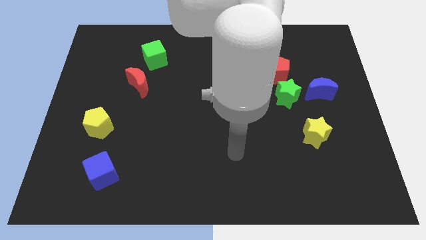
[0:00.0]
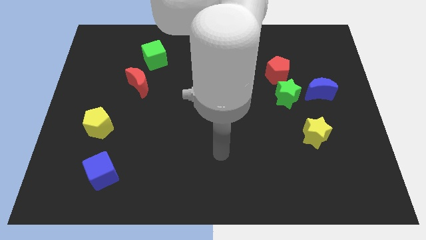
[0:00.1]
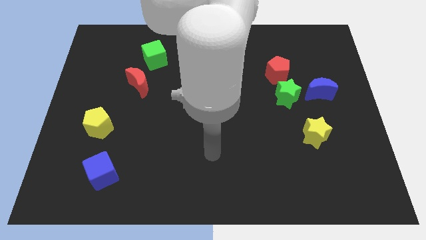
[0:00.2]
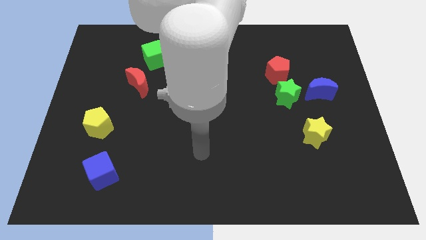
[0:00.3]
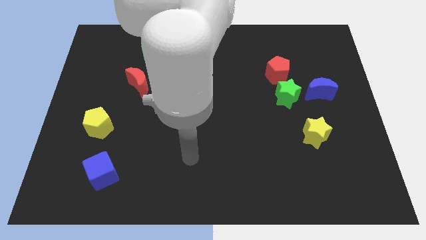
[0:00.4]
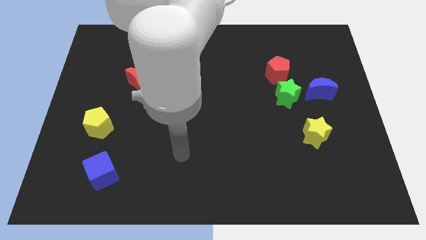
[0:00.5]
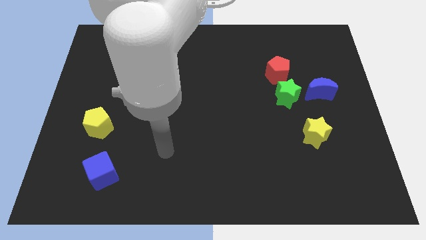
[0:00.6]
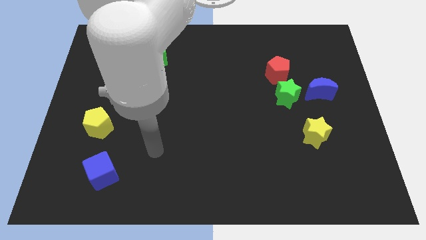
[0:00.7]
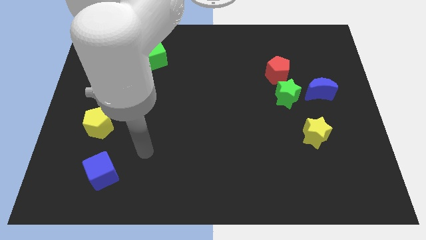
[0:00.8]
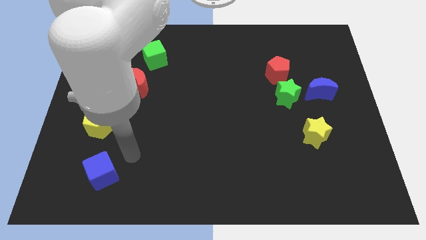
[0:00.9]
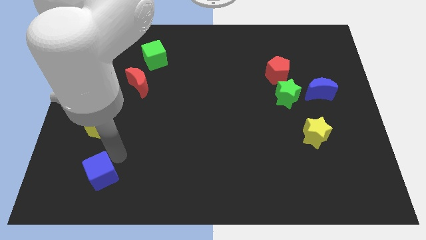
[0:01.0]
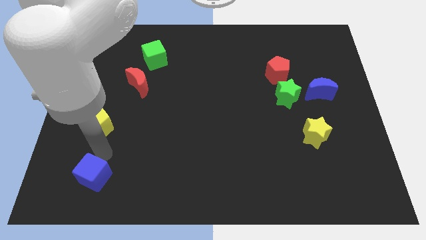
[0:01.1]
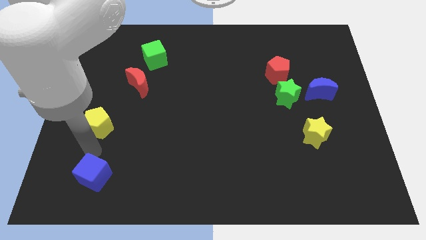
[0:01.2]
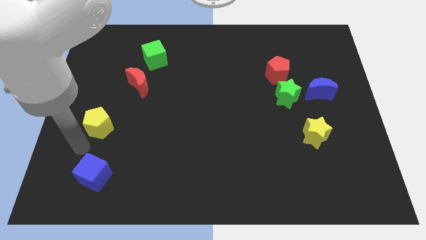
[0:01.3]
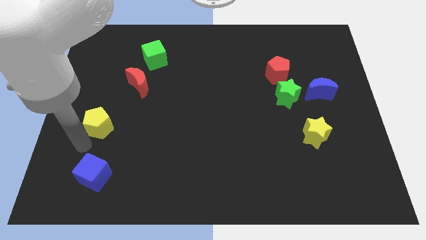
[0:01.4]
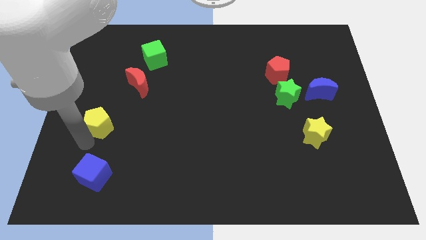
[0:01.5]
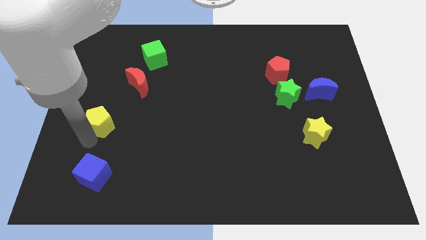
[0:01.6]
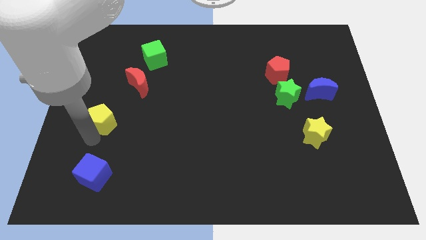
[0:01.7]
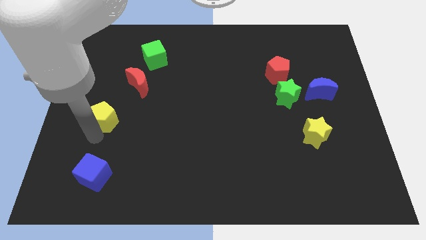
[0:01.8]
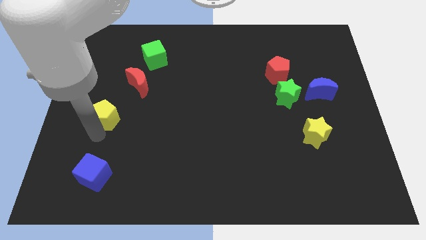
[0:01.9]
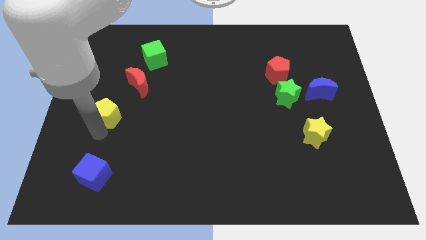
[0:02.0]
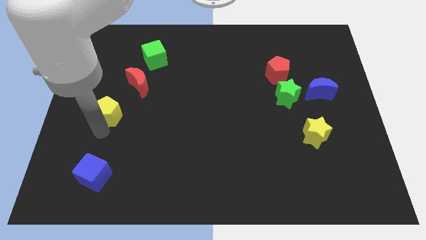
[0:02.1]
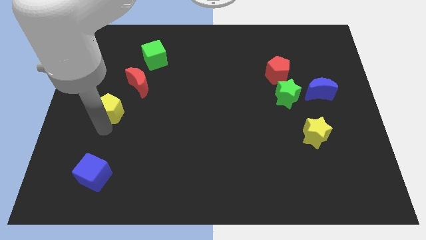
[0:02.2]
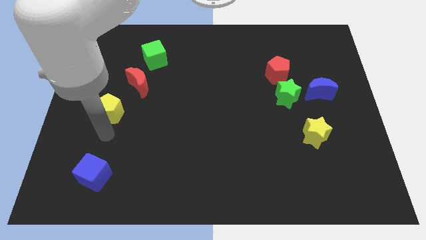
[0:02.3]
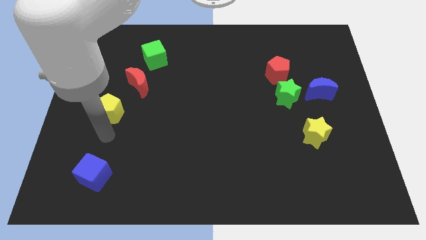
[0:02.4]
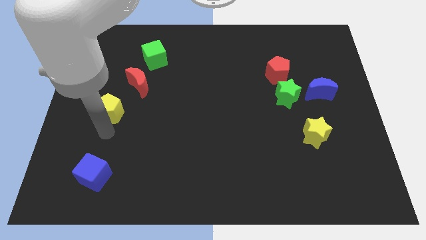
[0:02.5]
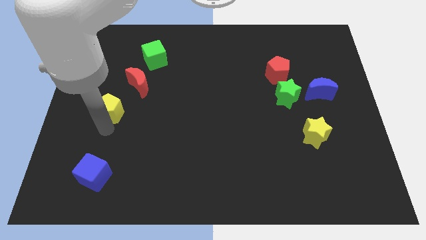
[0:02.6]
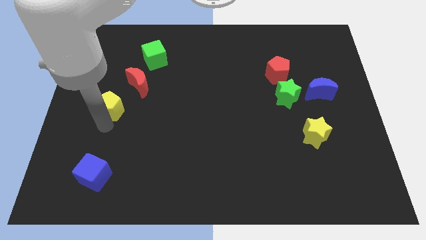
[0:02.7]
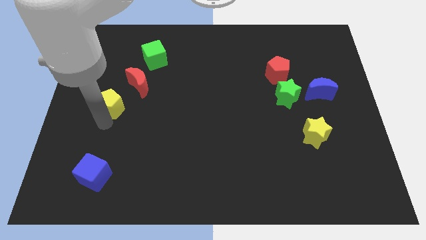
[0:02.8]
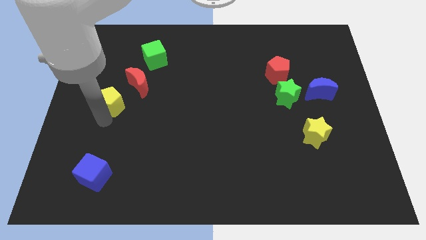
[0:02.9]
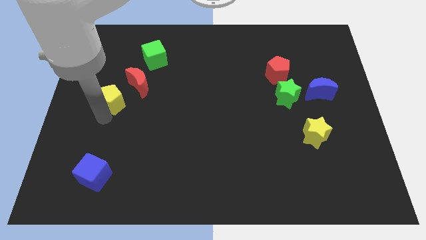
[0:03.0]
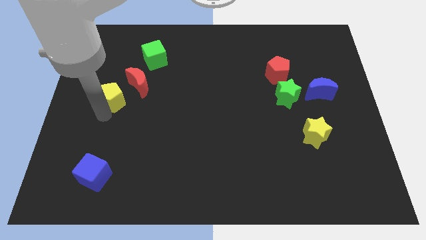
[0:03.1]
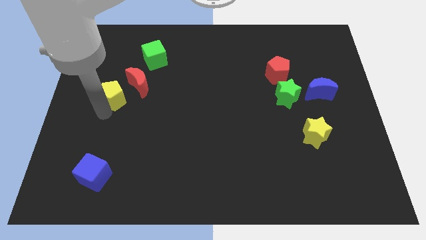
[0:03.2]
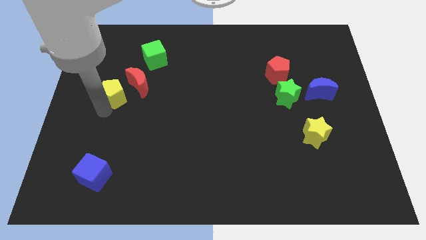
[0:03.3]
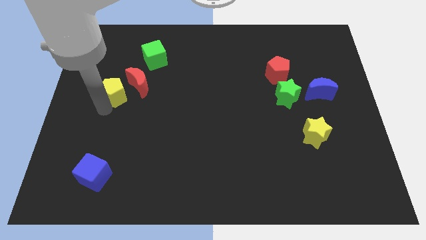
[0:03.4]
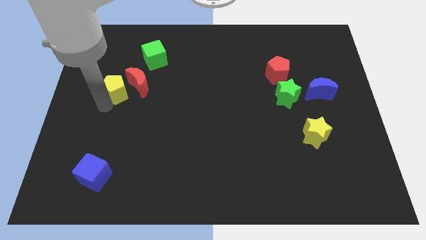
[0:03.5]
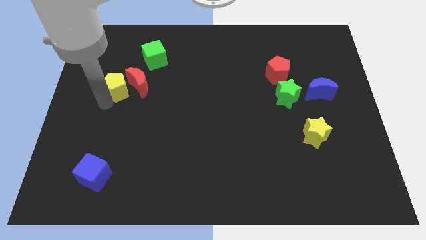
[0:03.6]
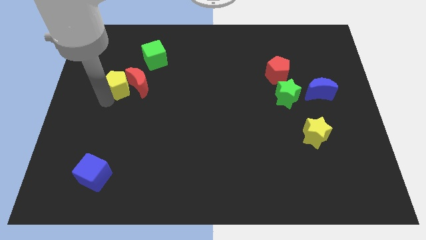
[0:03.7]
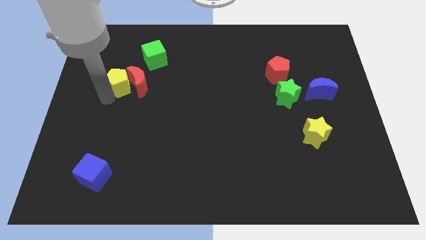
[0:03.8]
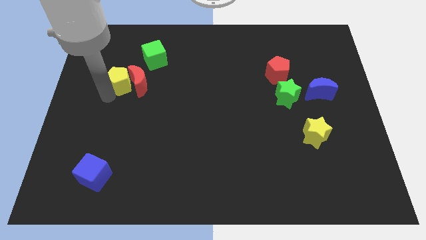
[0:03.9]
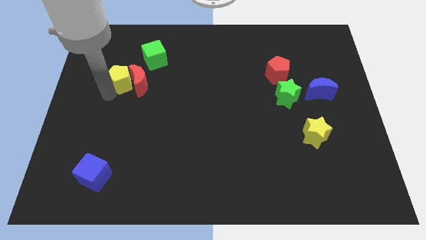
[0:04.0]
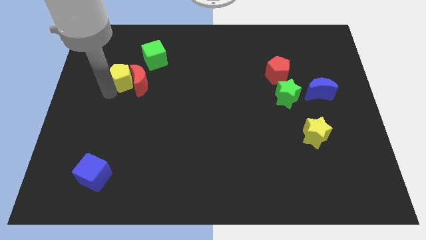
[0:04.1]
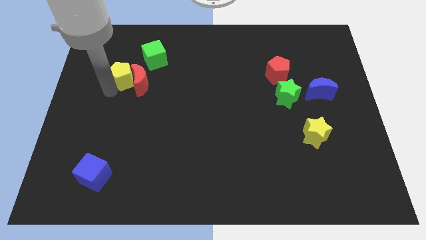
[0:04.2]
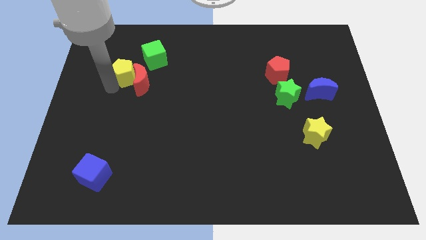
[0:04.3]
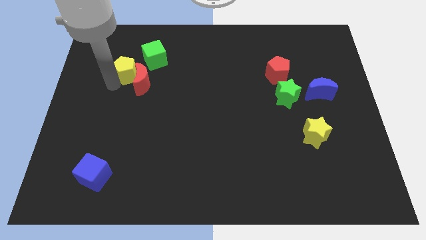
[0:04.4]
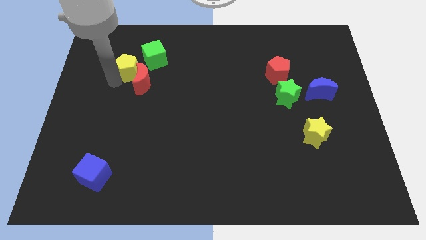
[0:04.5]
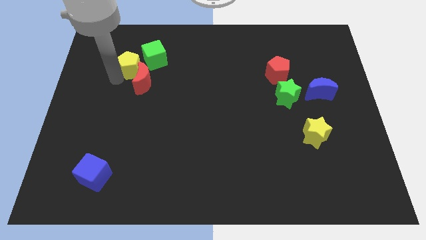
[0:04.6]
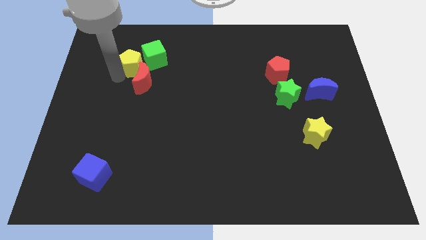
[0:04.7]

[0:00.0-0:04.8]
push the yellow pentagon close to the green cube

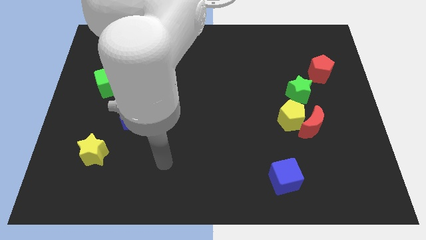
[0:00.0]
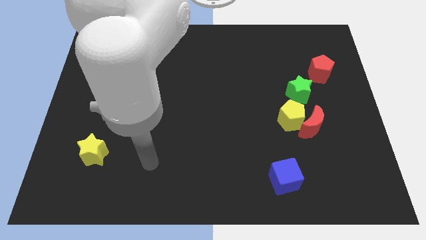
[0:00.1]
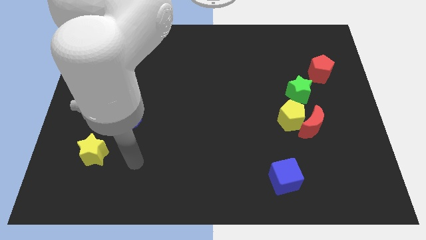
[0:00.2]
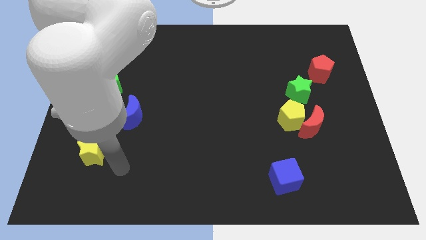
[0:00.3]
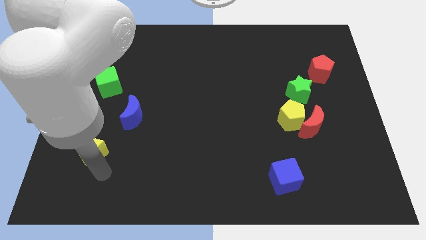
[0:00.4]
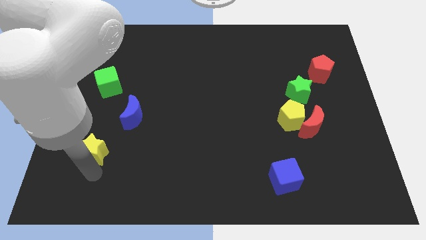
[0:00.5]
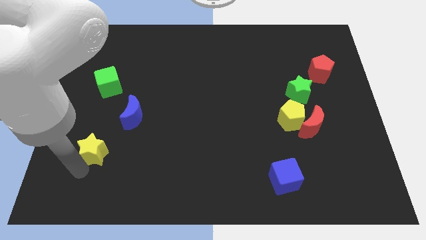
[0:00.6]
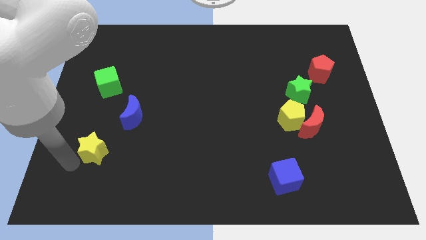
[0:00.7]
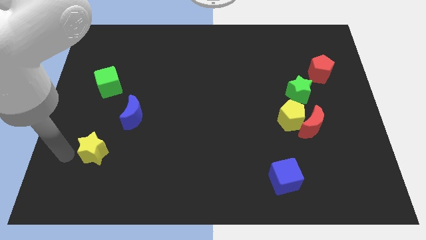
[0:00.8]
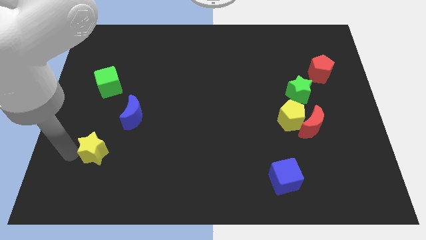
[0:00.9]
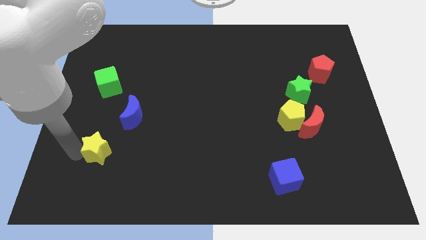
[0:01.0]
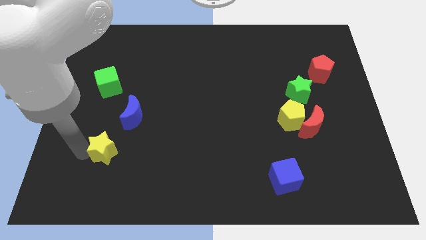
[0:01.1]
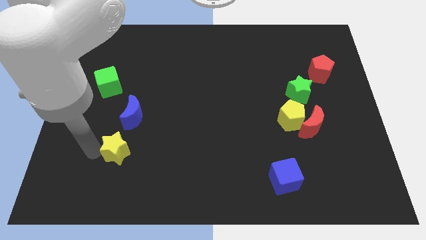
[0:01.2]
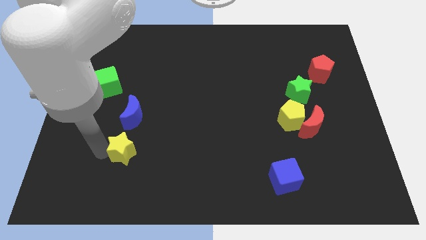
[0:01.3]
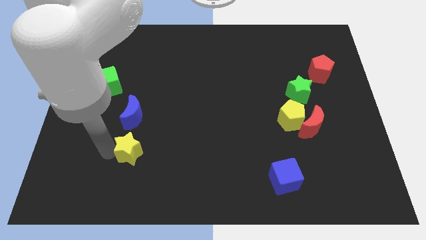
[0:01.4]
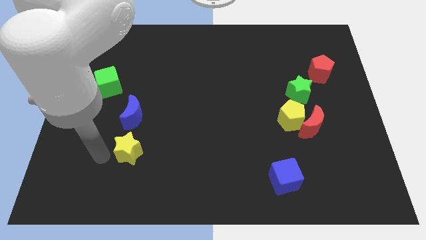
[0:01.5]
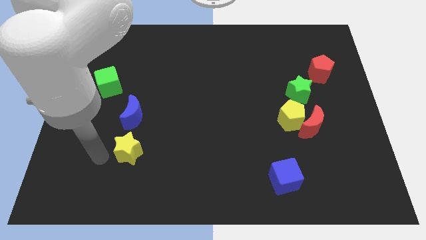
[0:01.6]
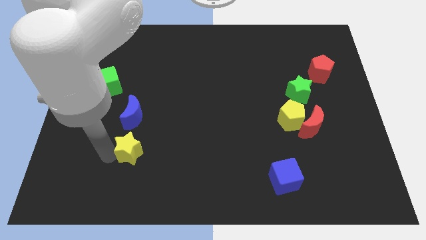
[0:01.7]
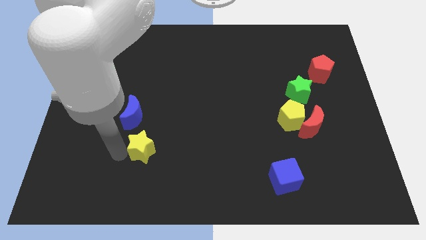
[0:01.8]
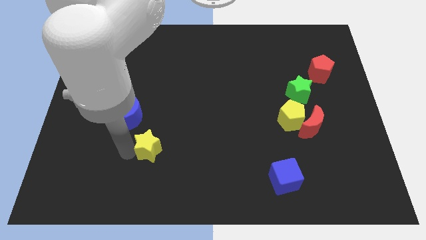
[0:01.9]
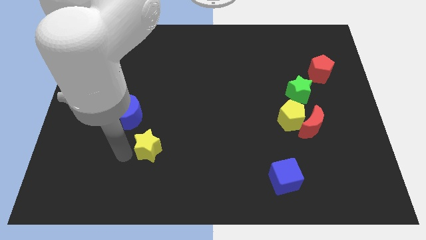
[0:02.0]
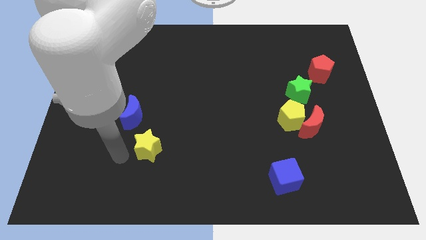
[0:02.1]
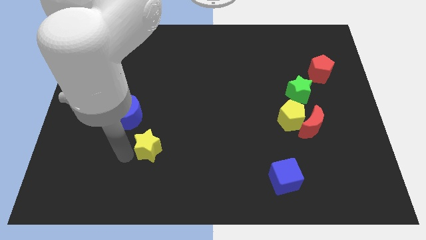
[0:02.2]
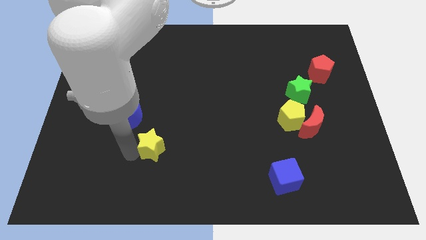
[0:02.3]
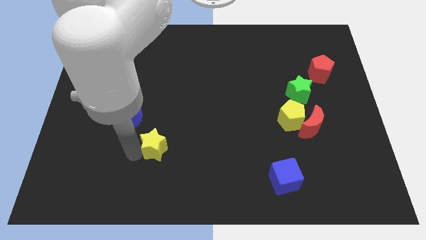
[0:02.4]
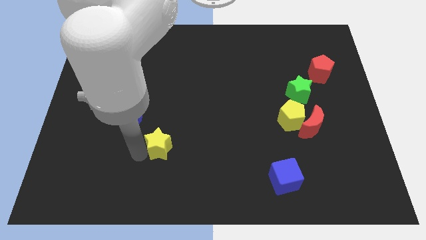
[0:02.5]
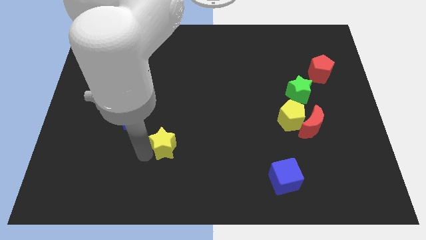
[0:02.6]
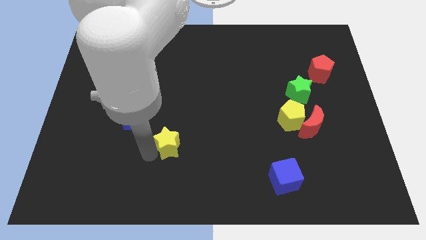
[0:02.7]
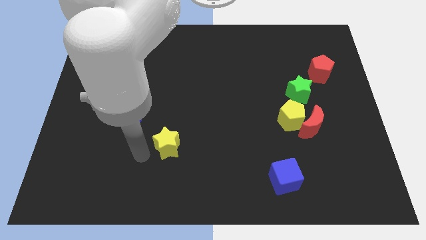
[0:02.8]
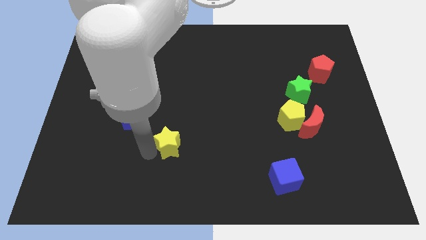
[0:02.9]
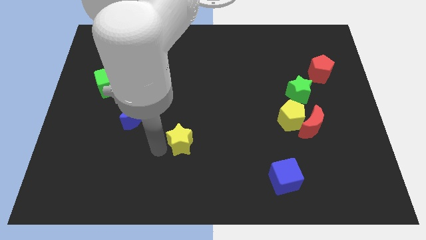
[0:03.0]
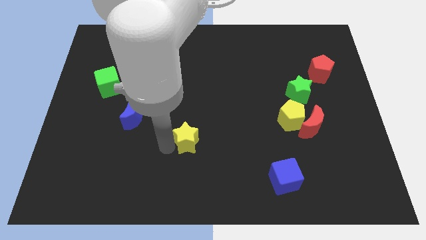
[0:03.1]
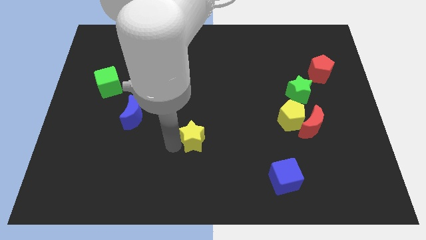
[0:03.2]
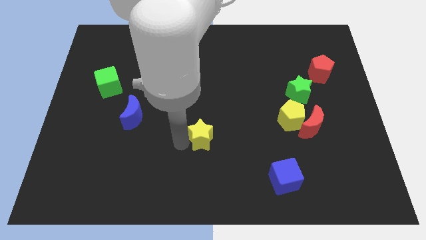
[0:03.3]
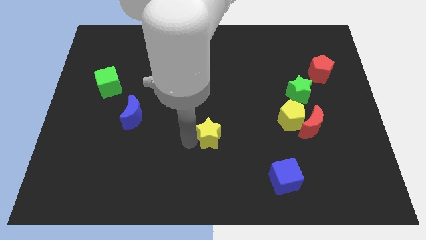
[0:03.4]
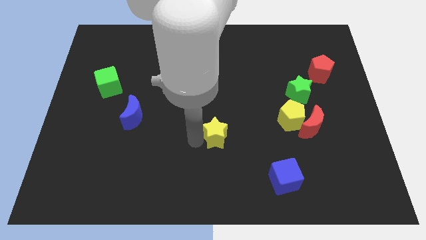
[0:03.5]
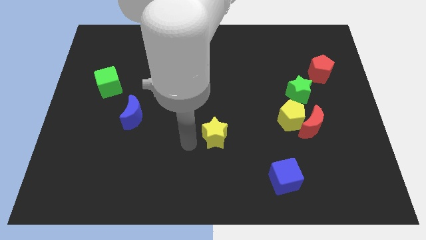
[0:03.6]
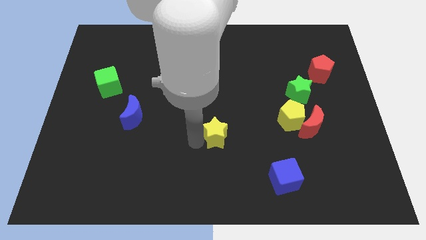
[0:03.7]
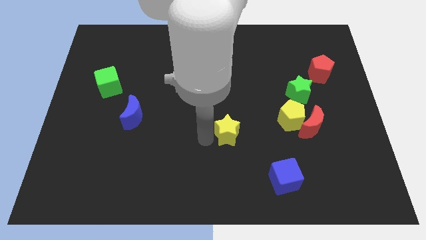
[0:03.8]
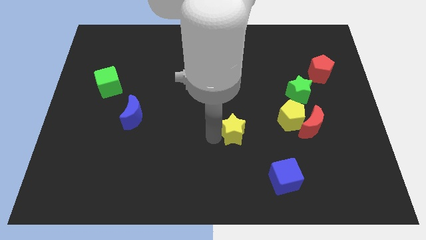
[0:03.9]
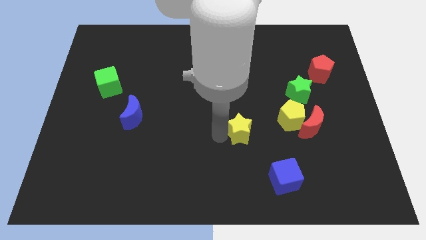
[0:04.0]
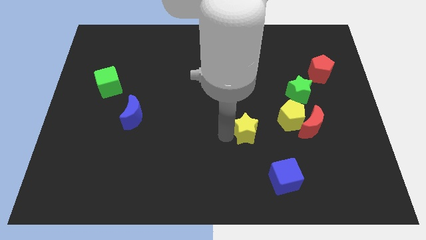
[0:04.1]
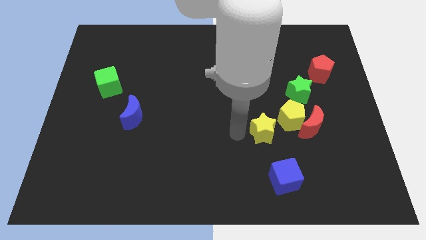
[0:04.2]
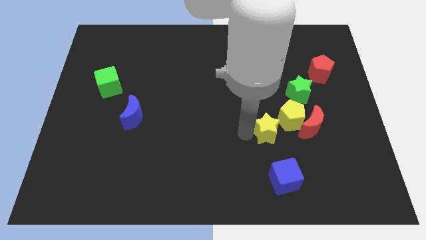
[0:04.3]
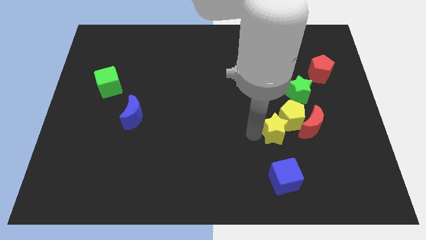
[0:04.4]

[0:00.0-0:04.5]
slide the yellow star to the yellow pentagon
